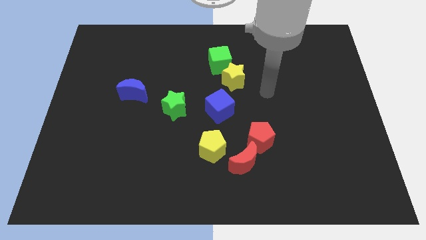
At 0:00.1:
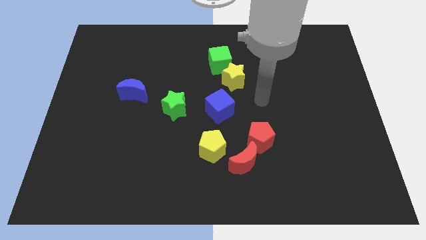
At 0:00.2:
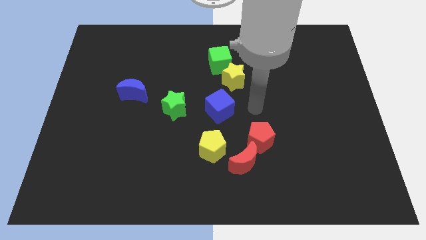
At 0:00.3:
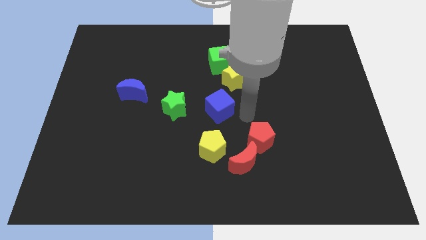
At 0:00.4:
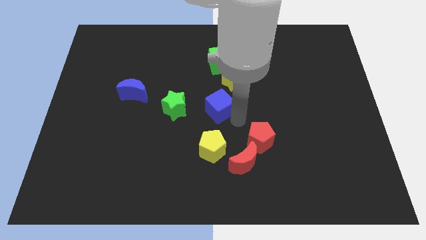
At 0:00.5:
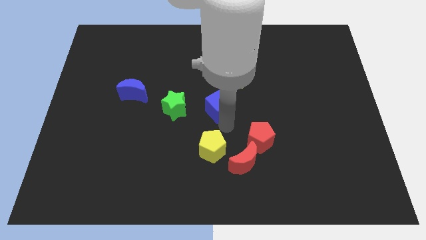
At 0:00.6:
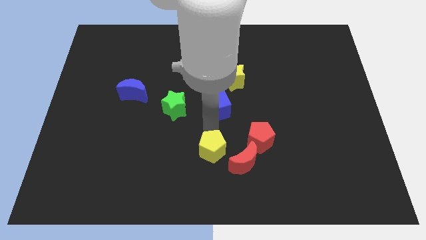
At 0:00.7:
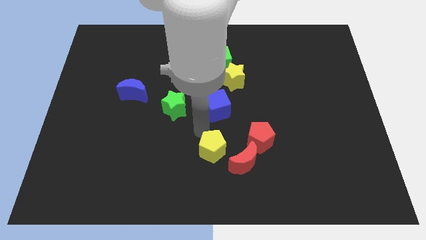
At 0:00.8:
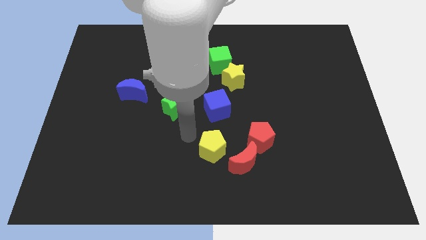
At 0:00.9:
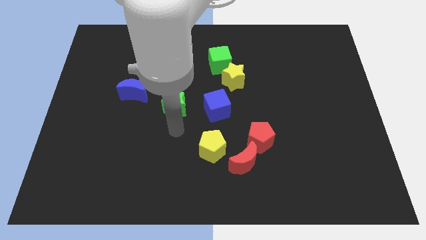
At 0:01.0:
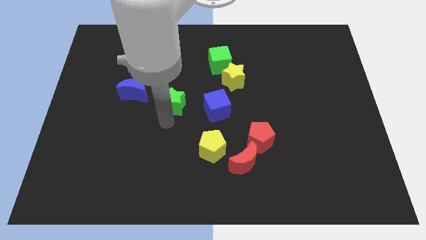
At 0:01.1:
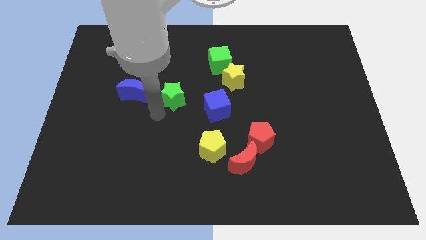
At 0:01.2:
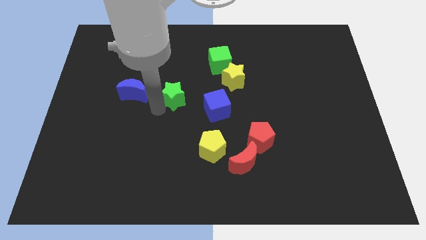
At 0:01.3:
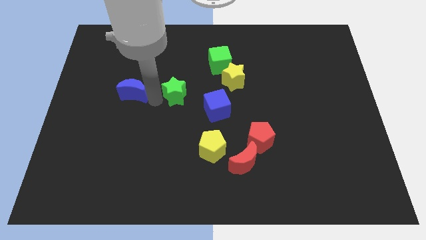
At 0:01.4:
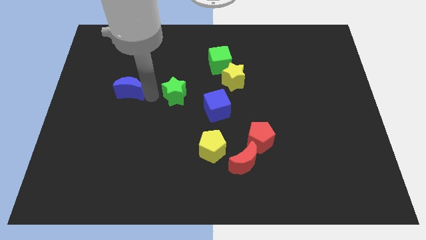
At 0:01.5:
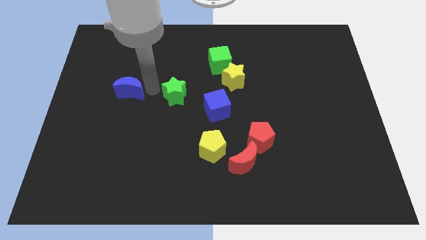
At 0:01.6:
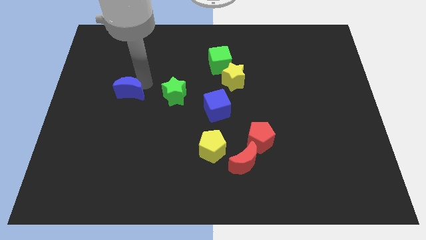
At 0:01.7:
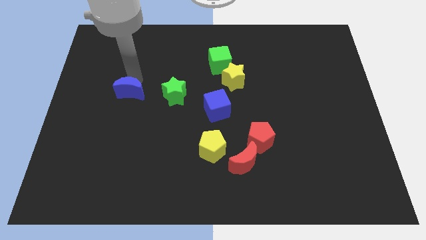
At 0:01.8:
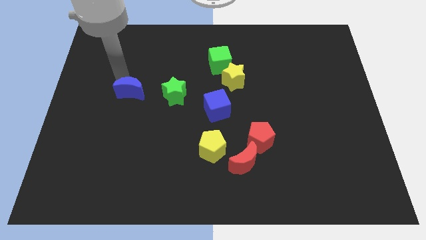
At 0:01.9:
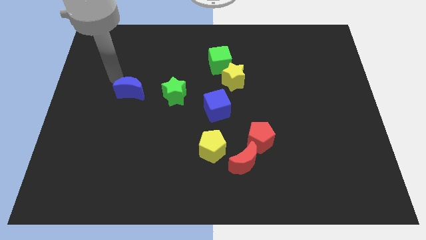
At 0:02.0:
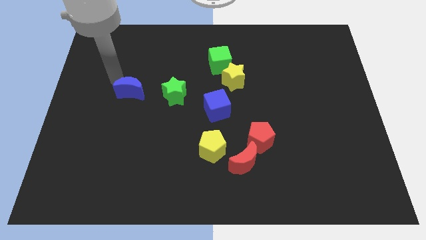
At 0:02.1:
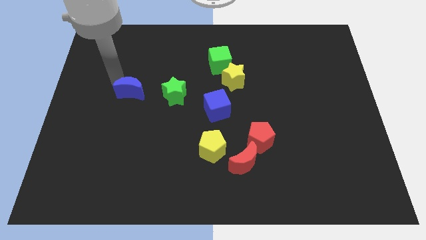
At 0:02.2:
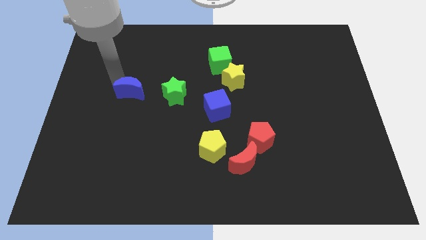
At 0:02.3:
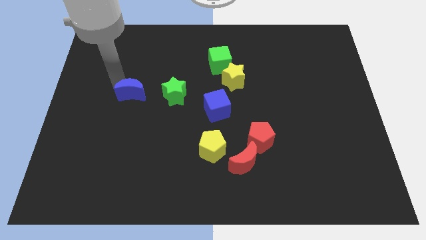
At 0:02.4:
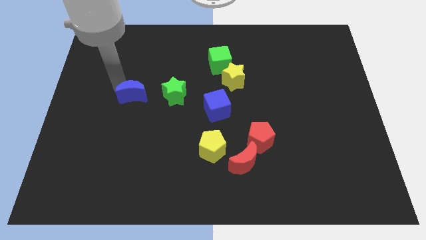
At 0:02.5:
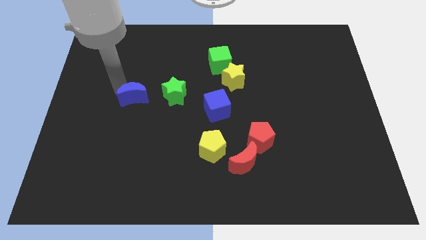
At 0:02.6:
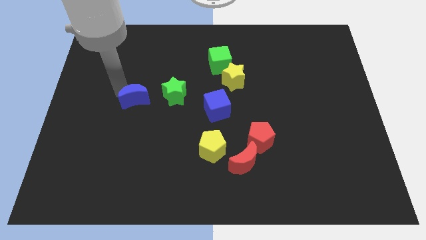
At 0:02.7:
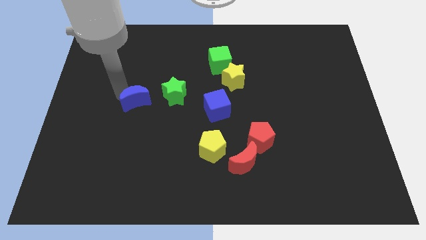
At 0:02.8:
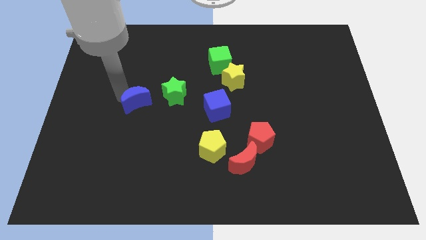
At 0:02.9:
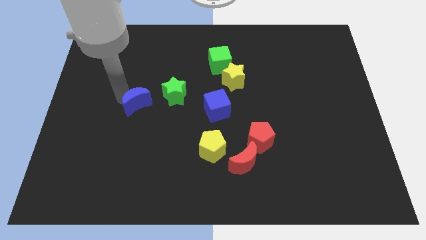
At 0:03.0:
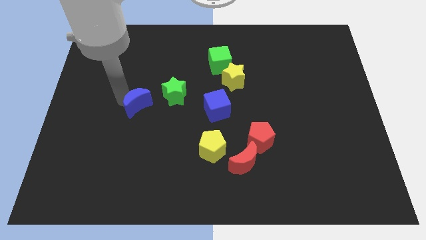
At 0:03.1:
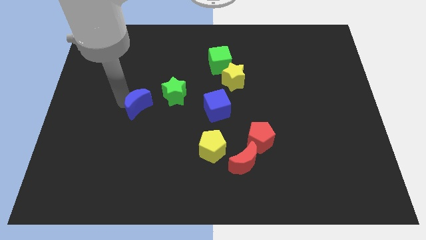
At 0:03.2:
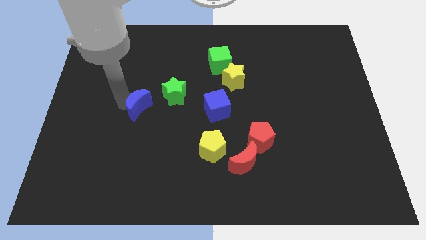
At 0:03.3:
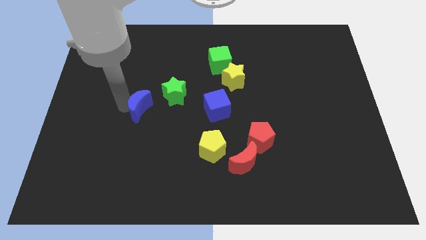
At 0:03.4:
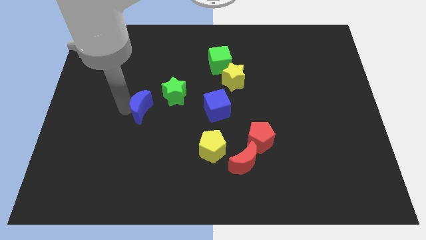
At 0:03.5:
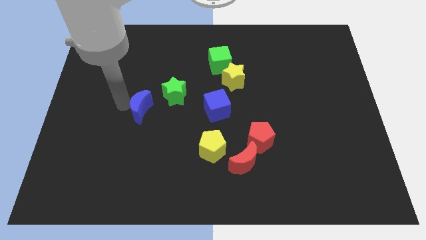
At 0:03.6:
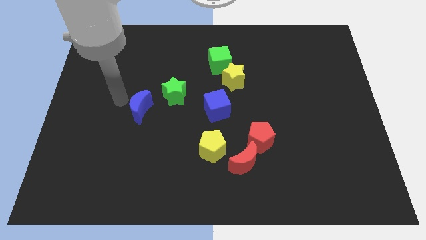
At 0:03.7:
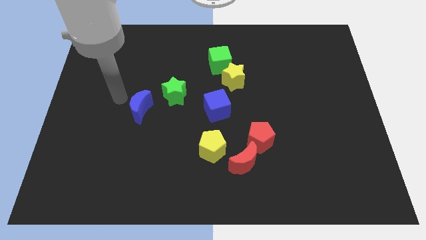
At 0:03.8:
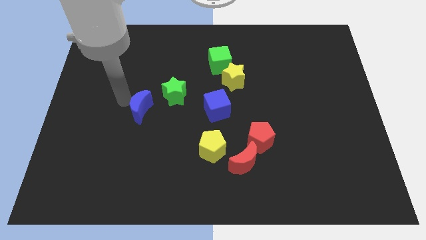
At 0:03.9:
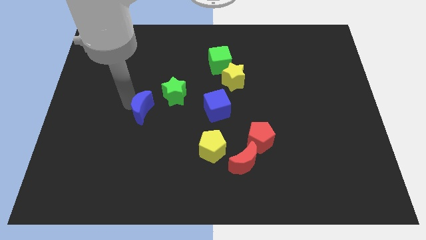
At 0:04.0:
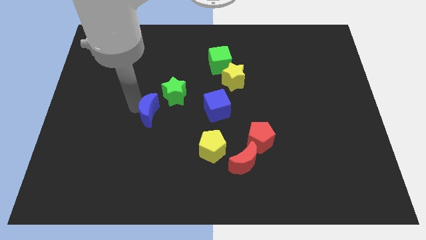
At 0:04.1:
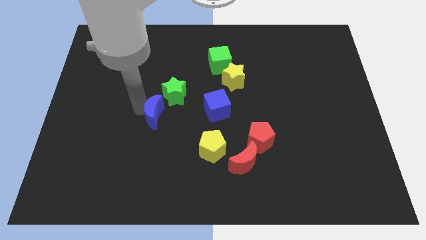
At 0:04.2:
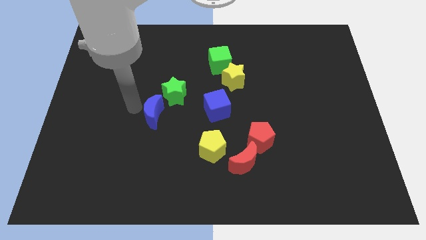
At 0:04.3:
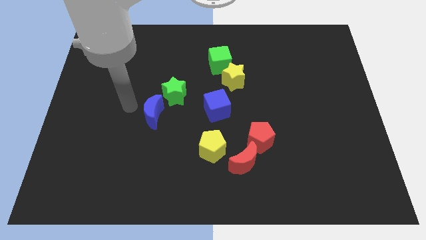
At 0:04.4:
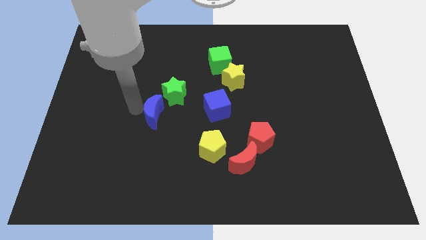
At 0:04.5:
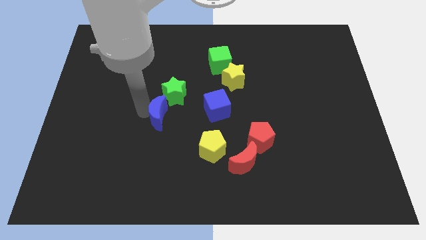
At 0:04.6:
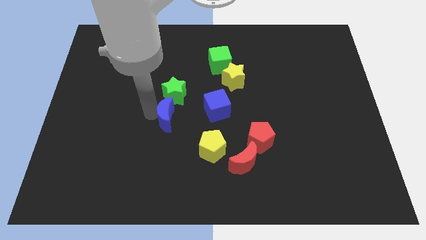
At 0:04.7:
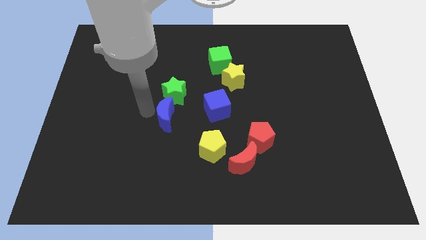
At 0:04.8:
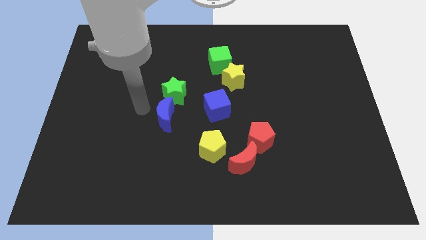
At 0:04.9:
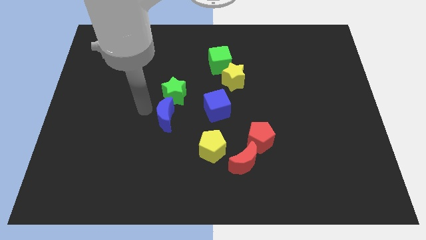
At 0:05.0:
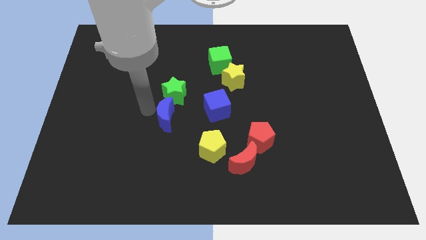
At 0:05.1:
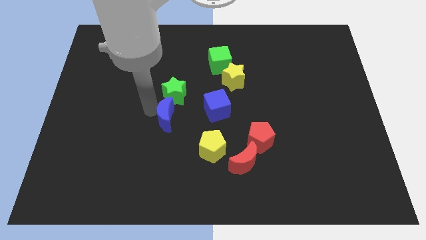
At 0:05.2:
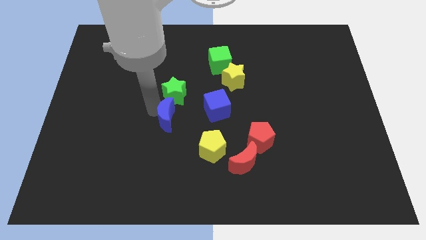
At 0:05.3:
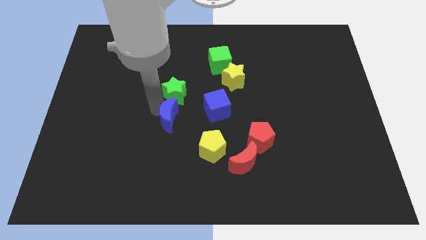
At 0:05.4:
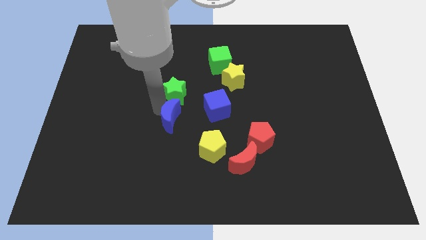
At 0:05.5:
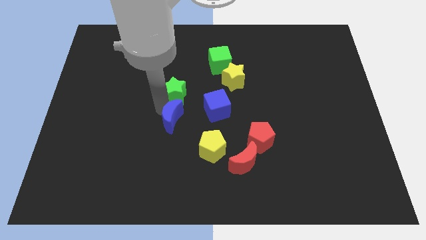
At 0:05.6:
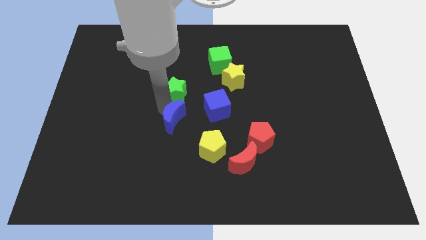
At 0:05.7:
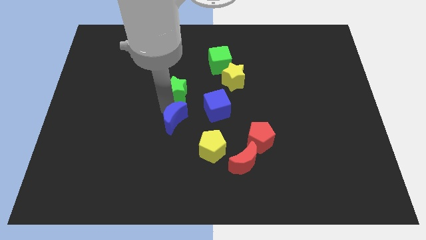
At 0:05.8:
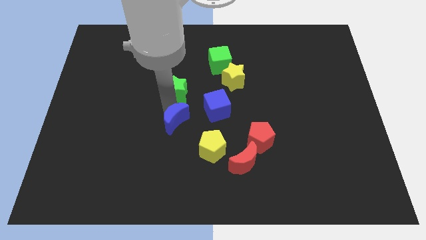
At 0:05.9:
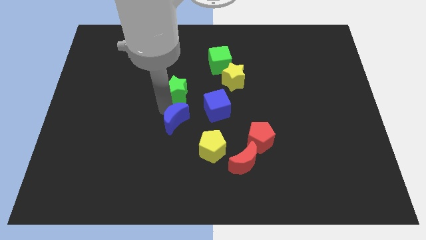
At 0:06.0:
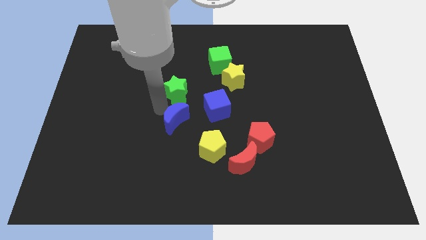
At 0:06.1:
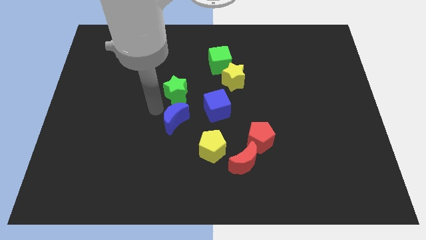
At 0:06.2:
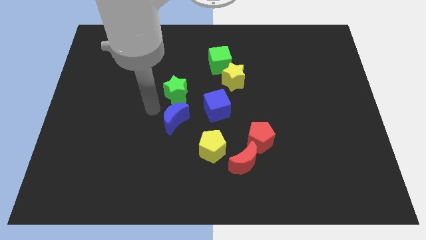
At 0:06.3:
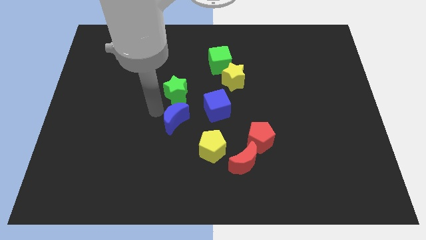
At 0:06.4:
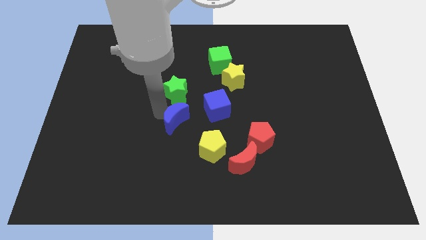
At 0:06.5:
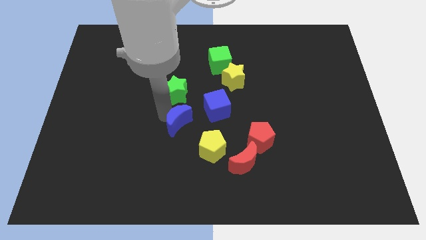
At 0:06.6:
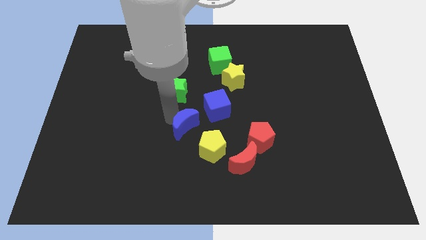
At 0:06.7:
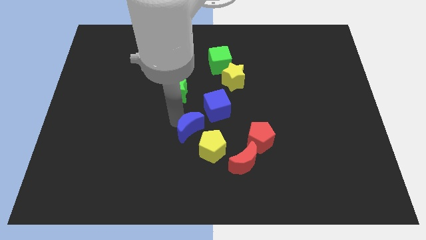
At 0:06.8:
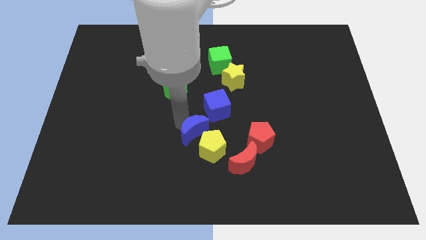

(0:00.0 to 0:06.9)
slide the blue moon close to the yellow pentagon

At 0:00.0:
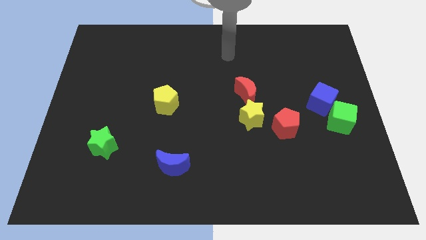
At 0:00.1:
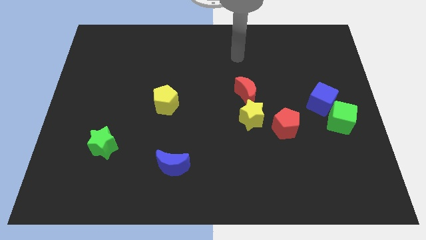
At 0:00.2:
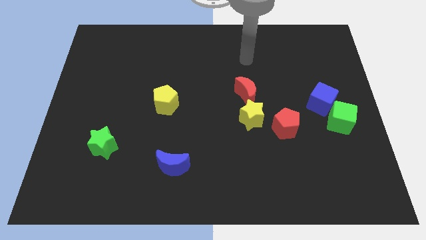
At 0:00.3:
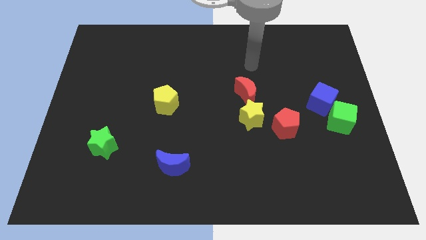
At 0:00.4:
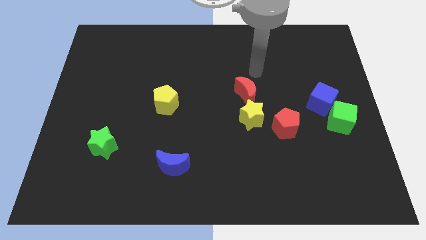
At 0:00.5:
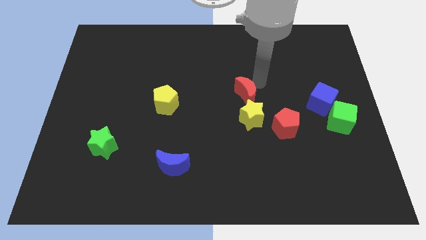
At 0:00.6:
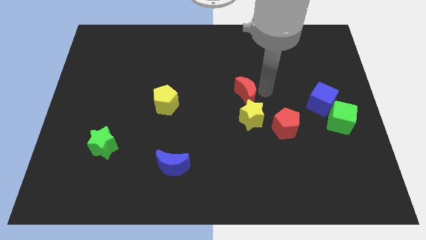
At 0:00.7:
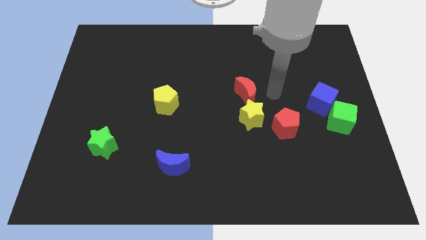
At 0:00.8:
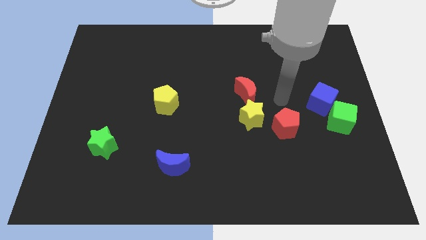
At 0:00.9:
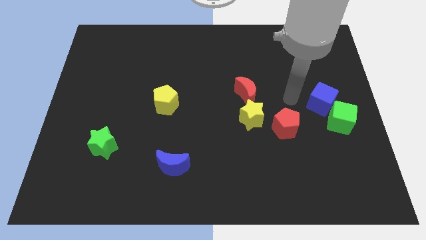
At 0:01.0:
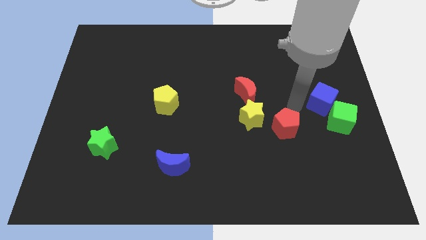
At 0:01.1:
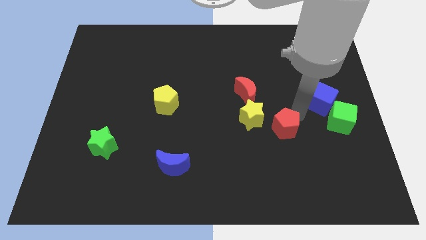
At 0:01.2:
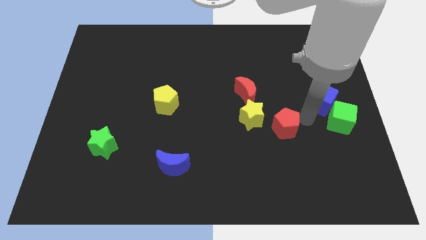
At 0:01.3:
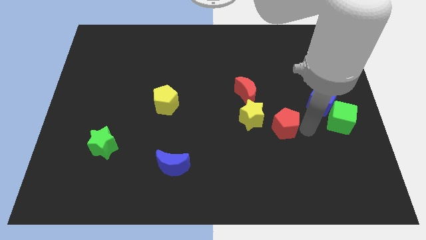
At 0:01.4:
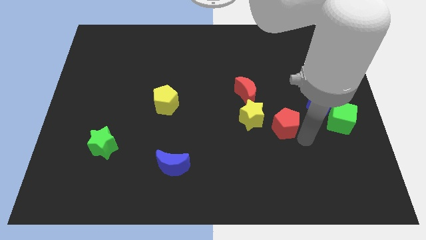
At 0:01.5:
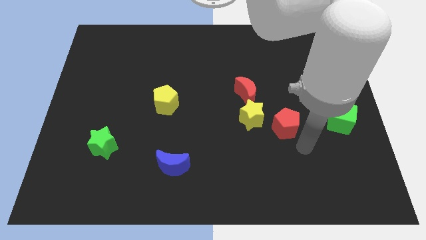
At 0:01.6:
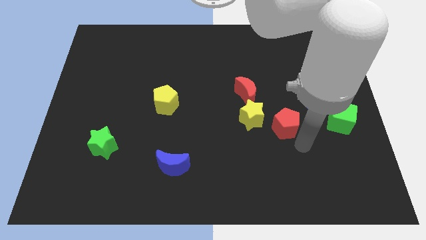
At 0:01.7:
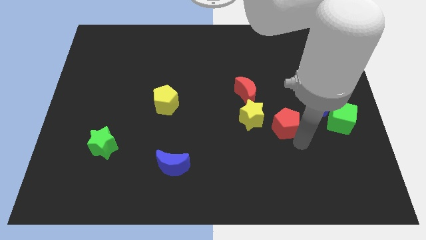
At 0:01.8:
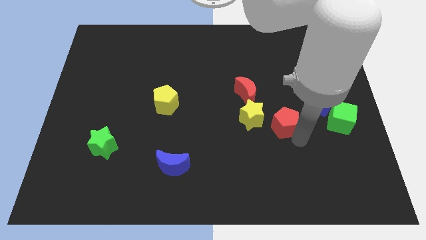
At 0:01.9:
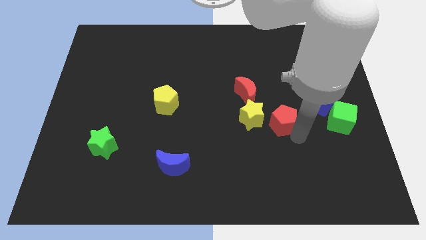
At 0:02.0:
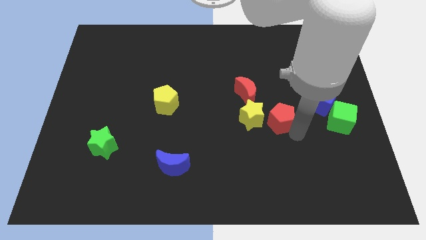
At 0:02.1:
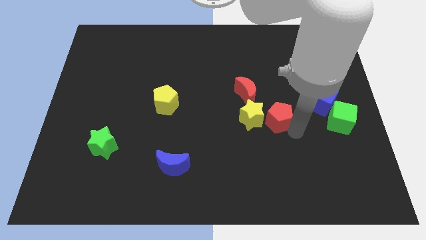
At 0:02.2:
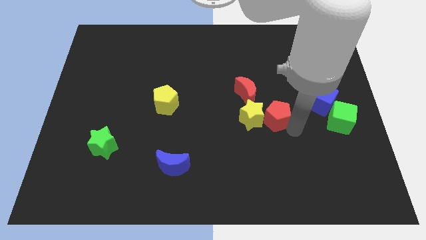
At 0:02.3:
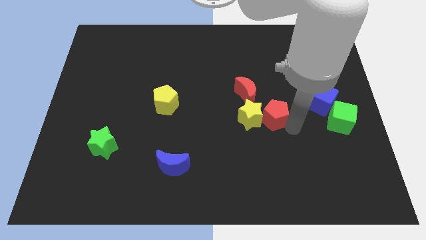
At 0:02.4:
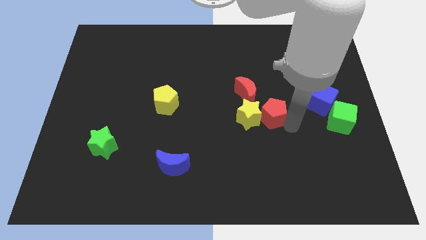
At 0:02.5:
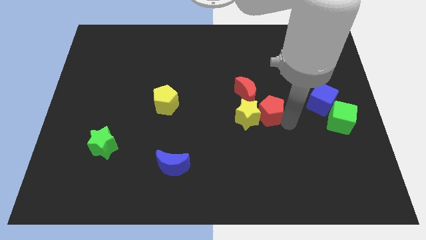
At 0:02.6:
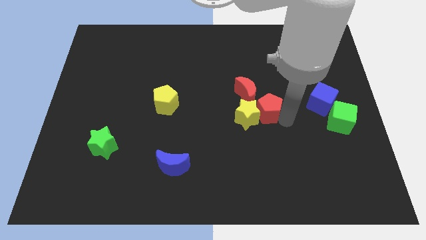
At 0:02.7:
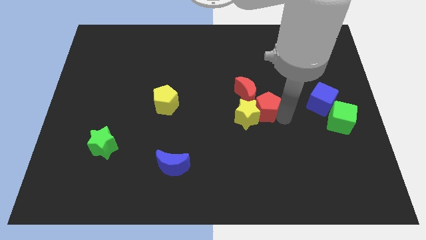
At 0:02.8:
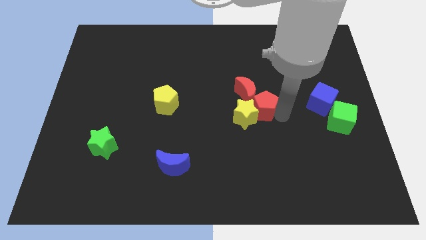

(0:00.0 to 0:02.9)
push the red pentagon close to the red moon
